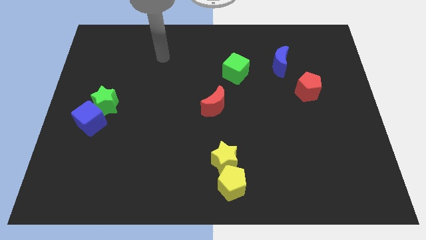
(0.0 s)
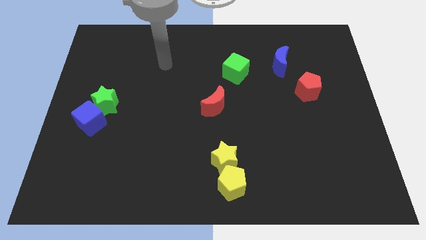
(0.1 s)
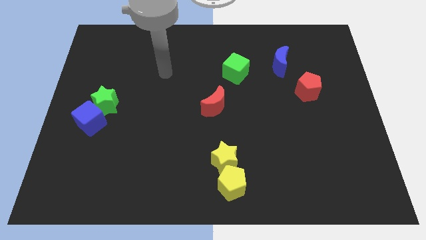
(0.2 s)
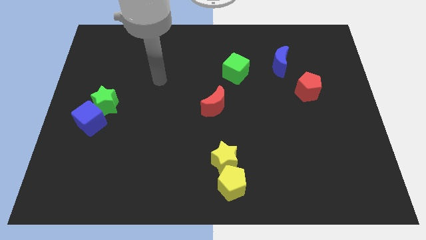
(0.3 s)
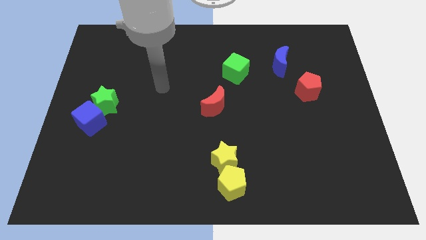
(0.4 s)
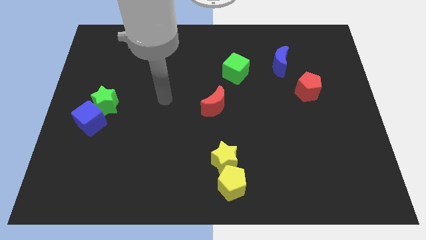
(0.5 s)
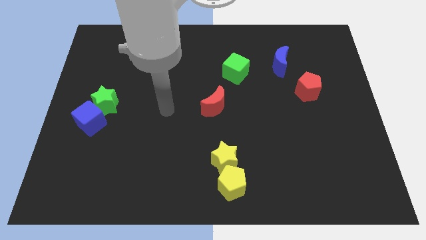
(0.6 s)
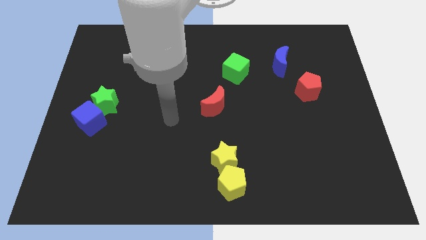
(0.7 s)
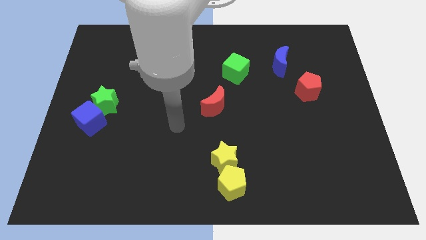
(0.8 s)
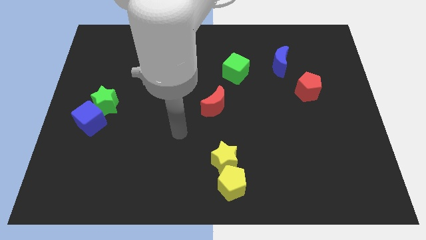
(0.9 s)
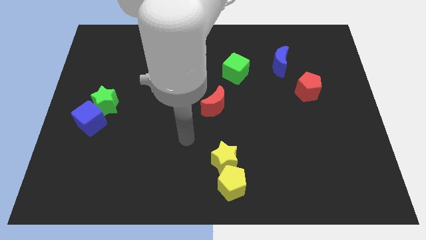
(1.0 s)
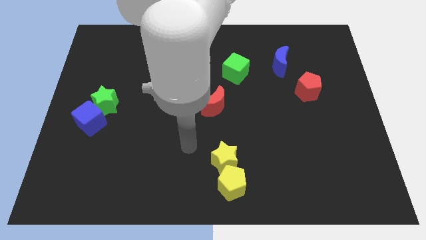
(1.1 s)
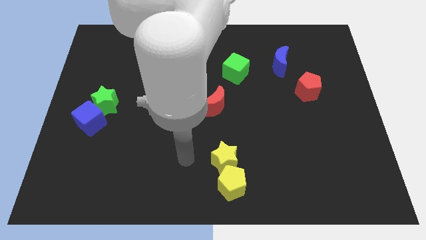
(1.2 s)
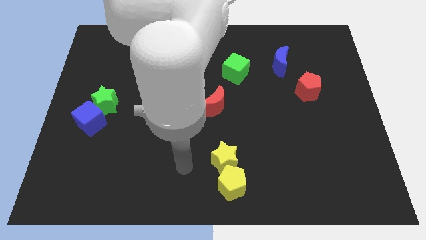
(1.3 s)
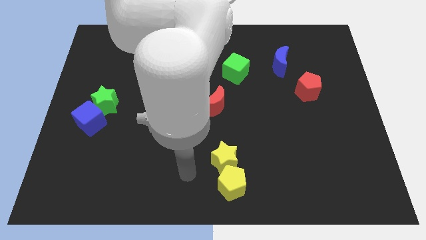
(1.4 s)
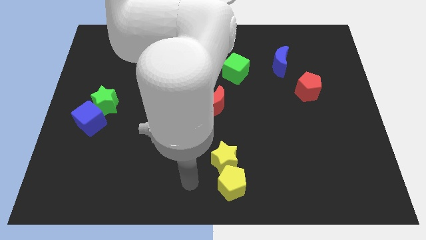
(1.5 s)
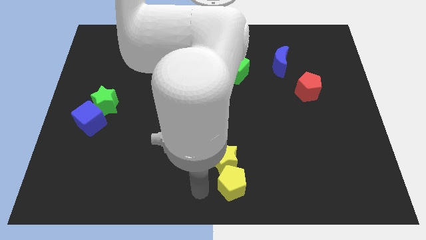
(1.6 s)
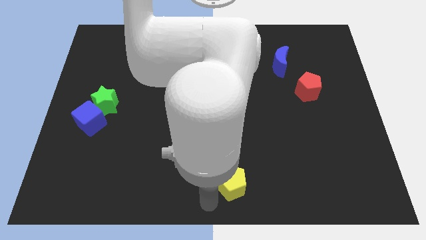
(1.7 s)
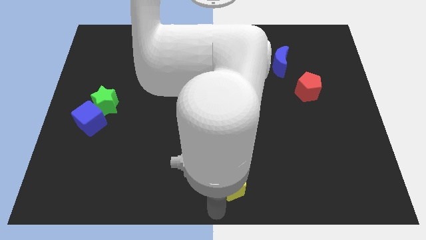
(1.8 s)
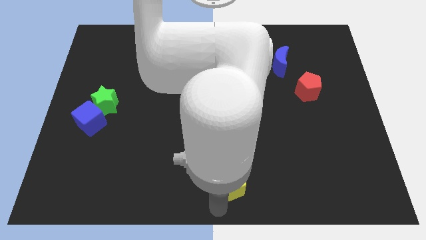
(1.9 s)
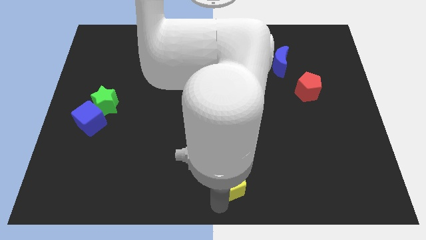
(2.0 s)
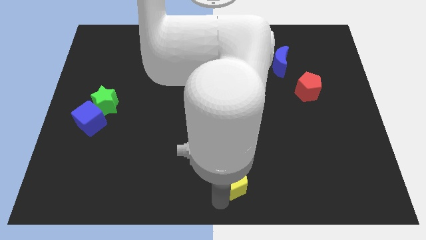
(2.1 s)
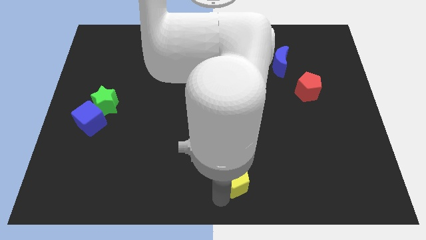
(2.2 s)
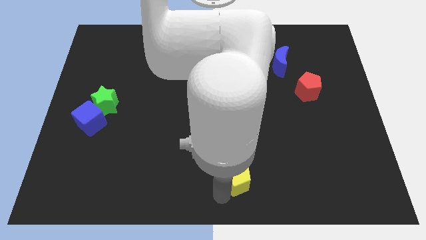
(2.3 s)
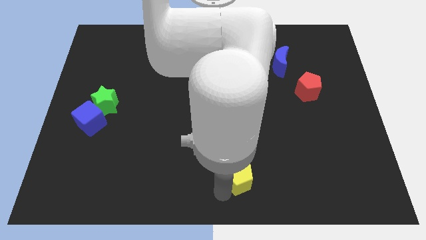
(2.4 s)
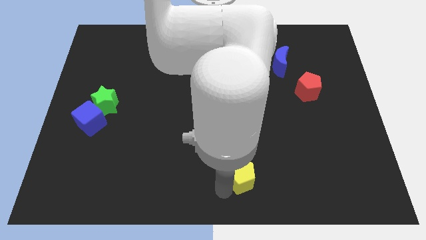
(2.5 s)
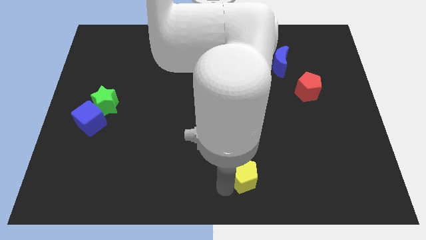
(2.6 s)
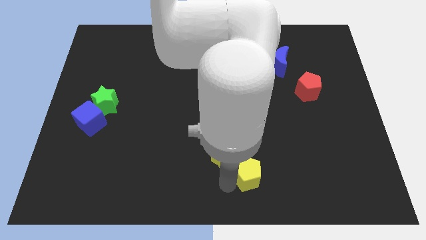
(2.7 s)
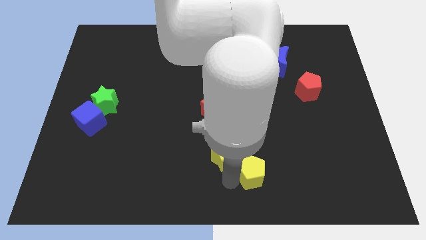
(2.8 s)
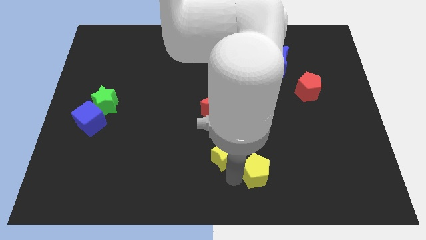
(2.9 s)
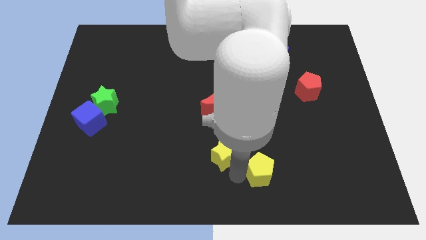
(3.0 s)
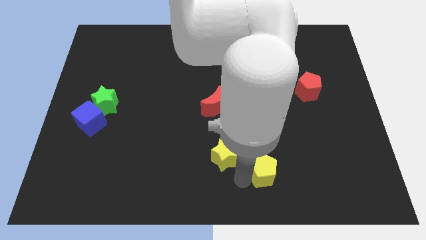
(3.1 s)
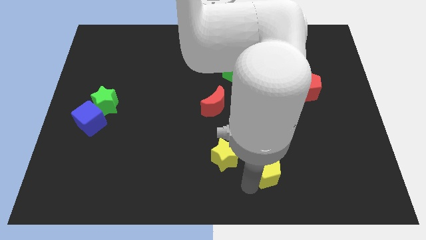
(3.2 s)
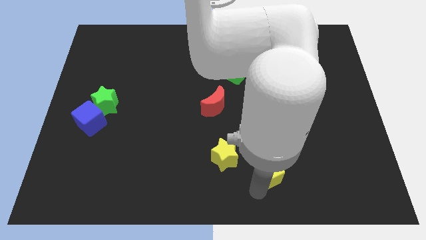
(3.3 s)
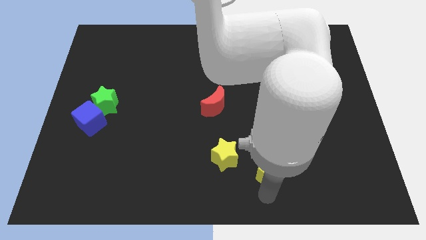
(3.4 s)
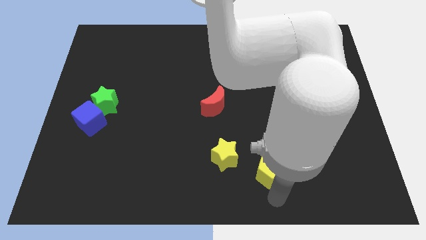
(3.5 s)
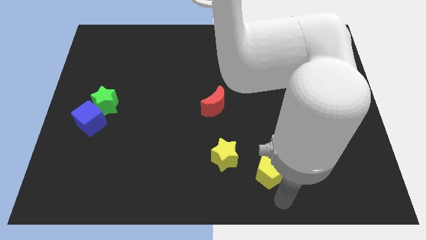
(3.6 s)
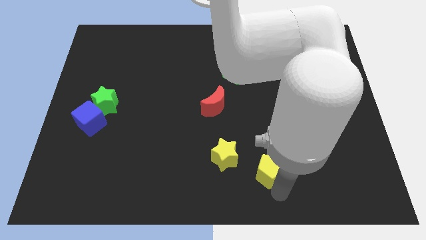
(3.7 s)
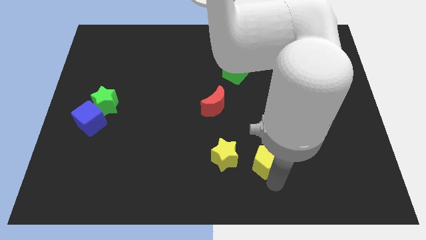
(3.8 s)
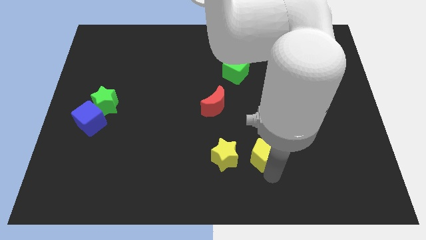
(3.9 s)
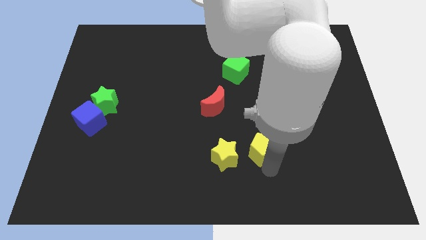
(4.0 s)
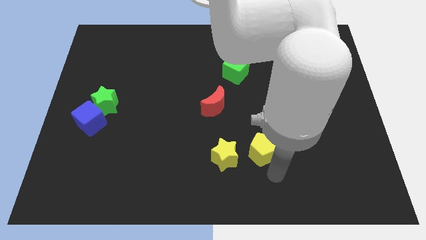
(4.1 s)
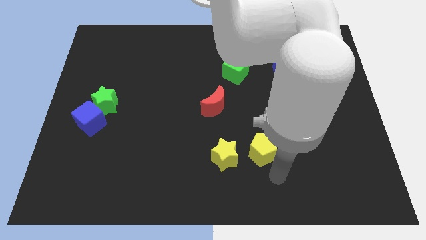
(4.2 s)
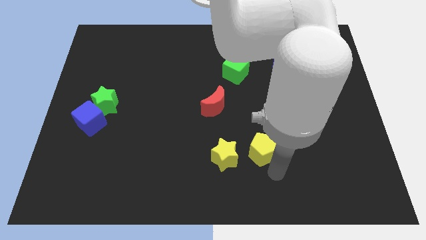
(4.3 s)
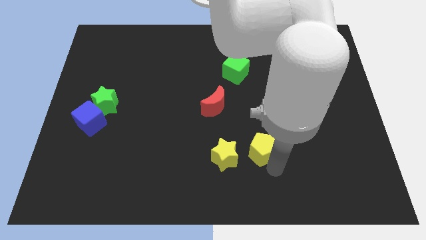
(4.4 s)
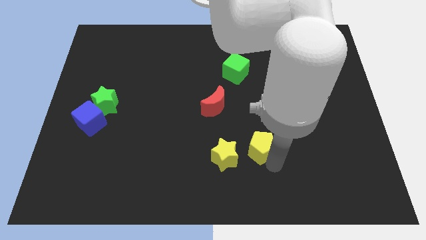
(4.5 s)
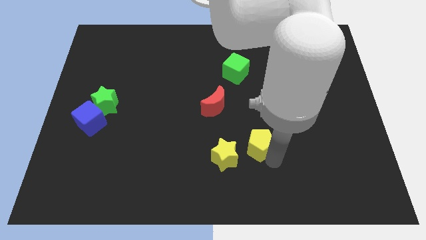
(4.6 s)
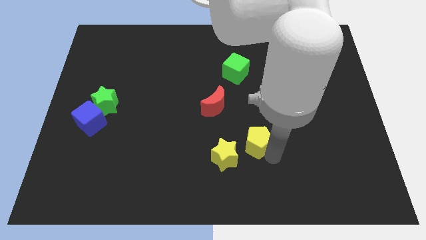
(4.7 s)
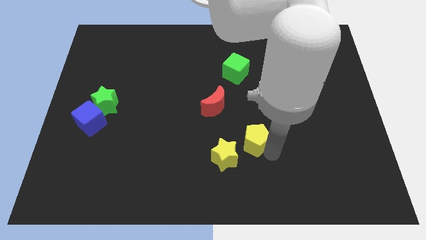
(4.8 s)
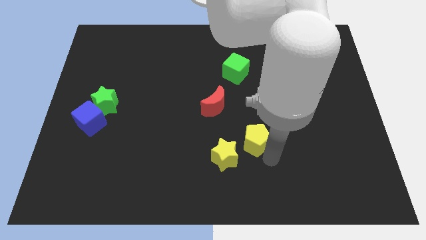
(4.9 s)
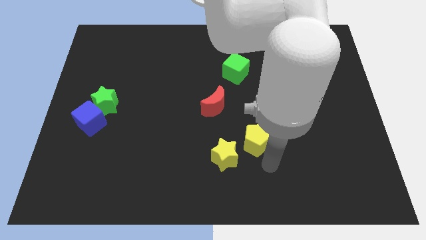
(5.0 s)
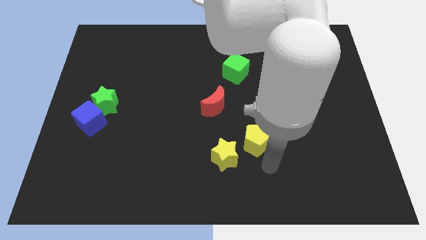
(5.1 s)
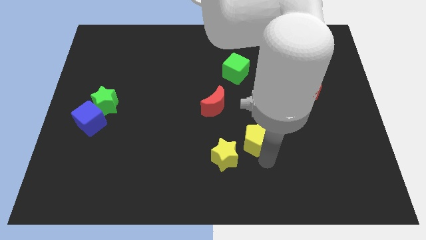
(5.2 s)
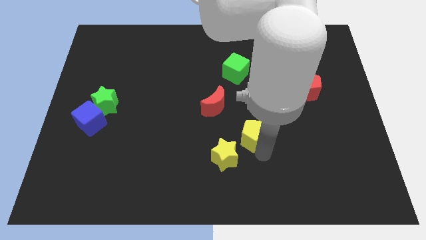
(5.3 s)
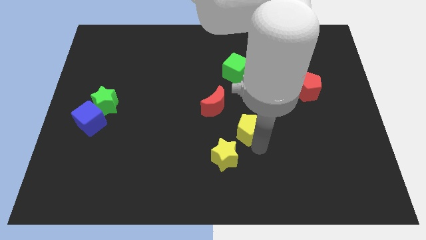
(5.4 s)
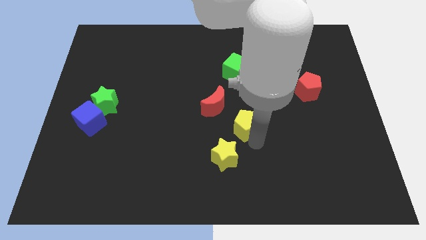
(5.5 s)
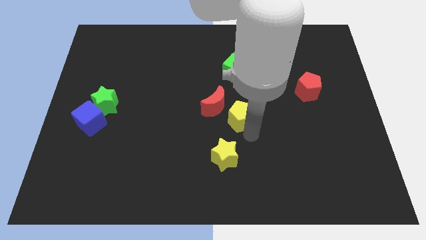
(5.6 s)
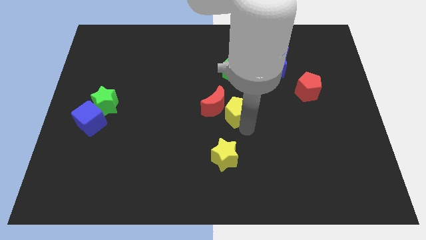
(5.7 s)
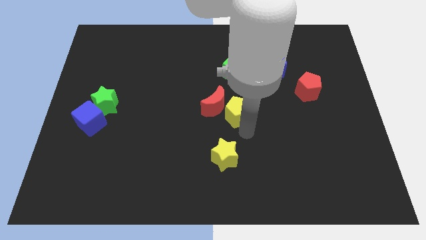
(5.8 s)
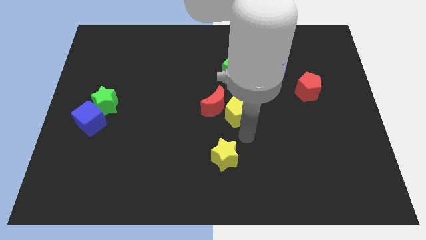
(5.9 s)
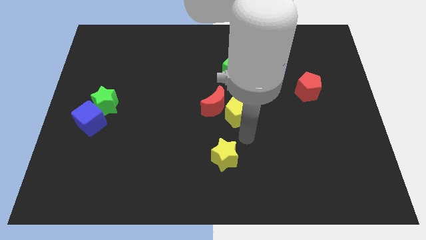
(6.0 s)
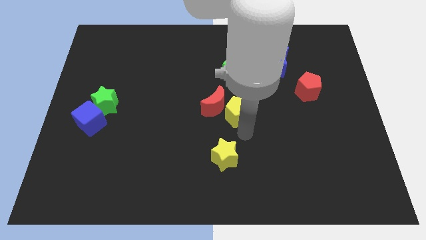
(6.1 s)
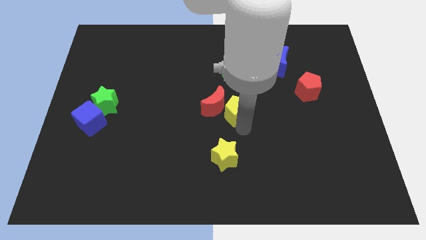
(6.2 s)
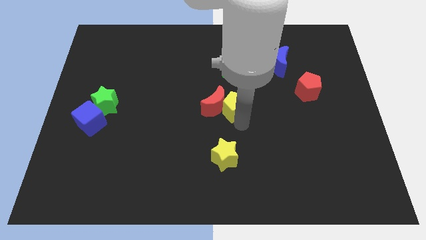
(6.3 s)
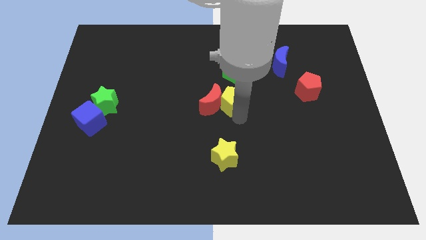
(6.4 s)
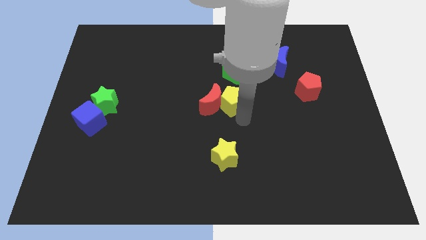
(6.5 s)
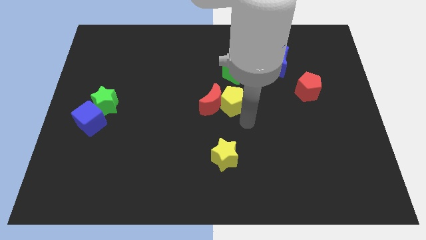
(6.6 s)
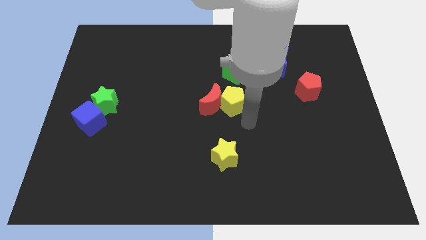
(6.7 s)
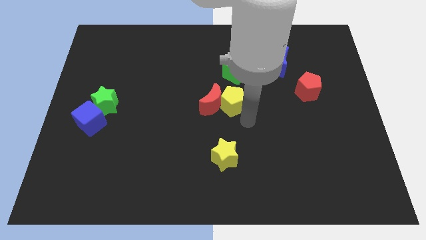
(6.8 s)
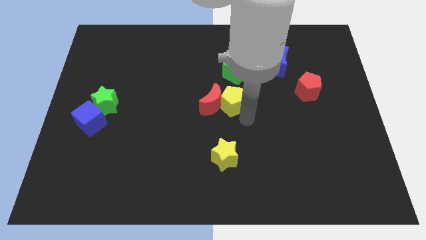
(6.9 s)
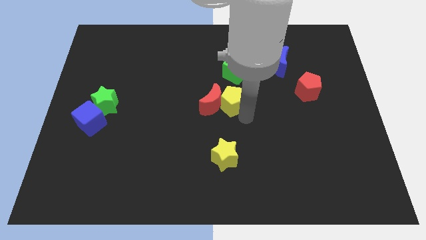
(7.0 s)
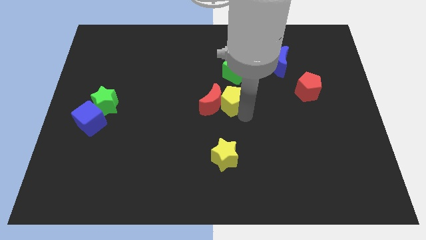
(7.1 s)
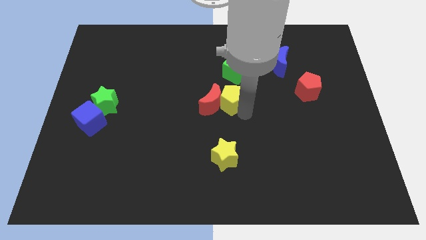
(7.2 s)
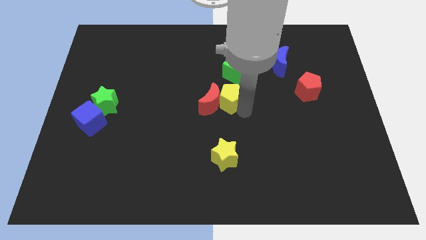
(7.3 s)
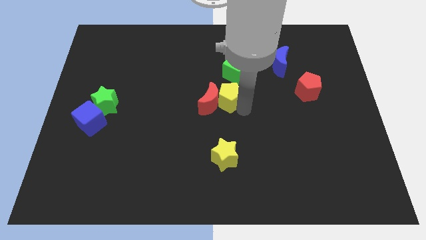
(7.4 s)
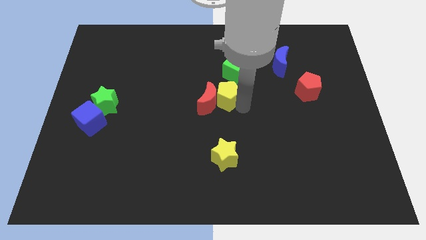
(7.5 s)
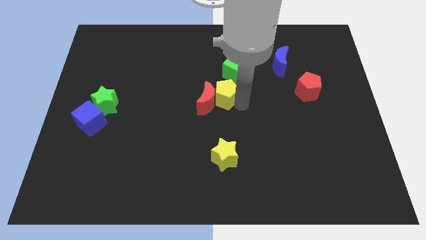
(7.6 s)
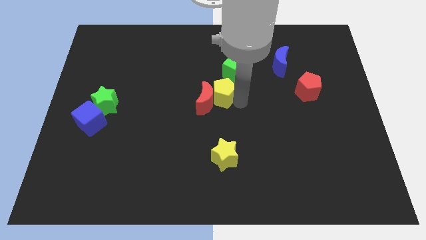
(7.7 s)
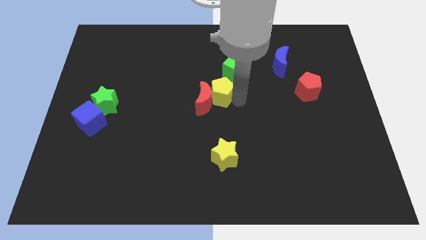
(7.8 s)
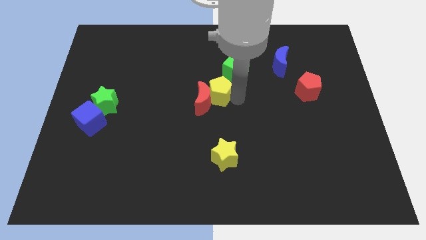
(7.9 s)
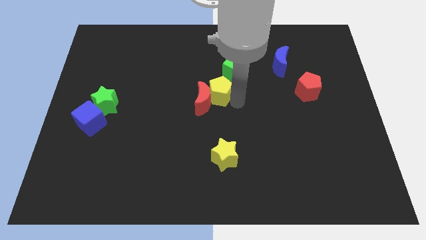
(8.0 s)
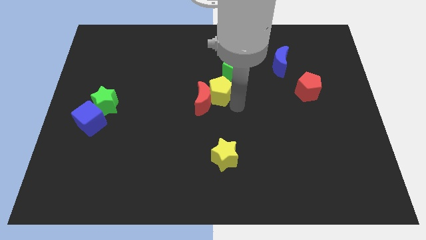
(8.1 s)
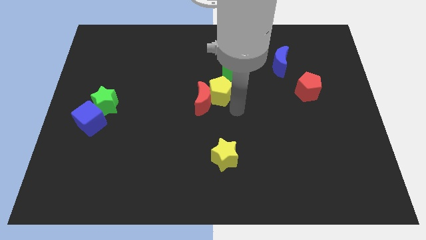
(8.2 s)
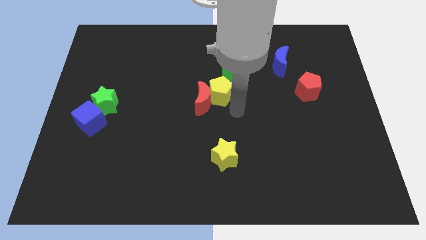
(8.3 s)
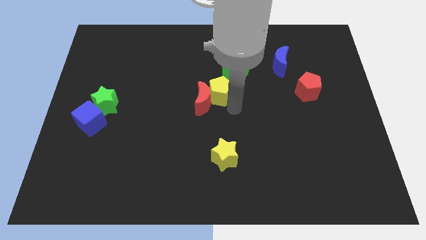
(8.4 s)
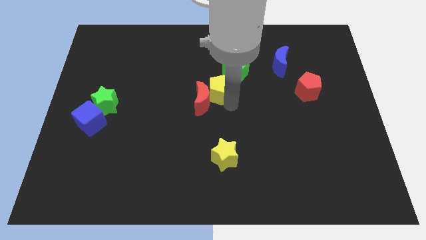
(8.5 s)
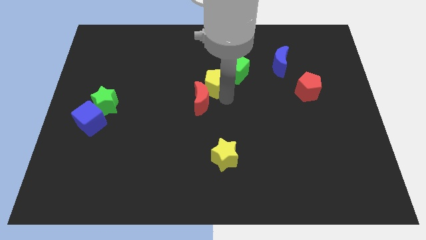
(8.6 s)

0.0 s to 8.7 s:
move the yellow pentagon left of the green cube
